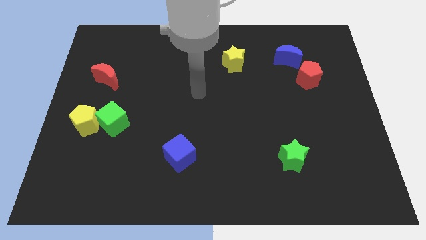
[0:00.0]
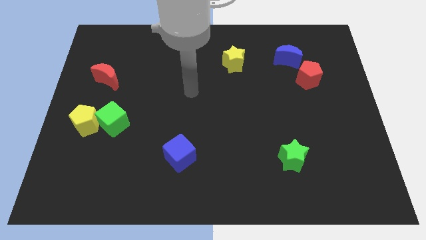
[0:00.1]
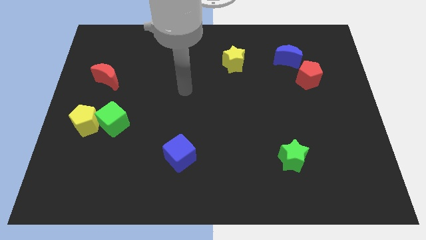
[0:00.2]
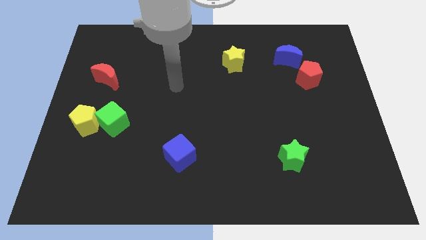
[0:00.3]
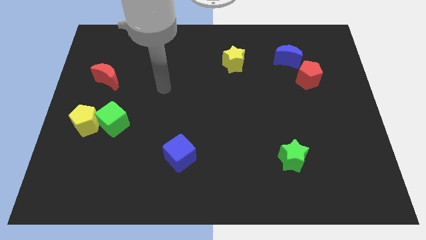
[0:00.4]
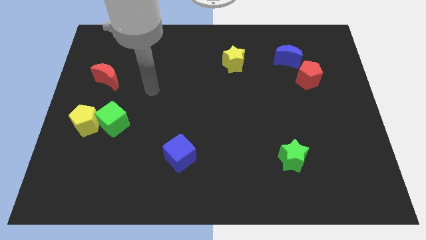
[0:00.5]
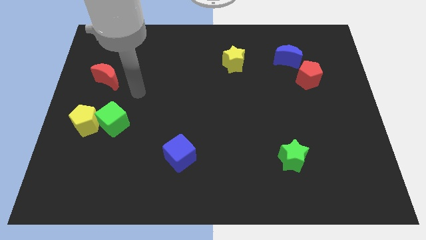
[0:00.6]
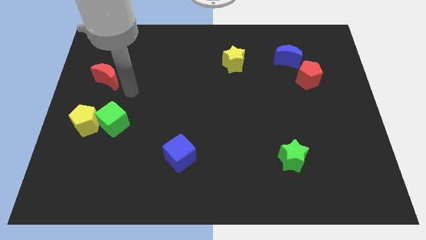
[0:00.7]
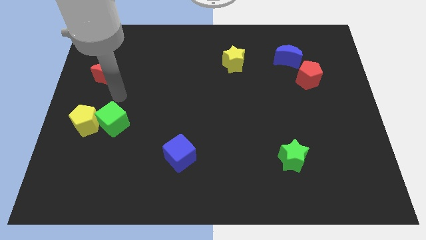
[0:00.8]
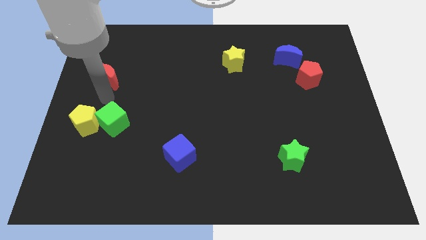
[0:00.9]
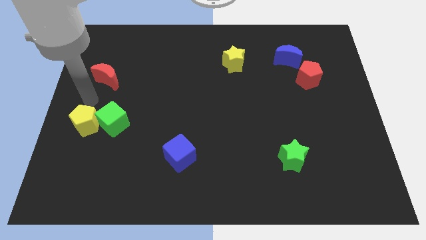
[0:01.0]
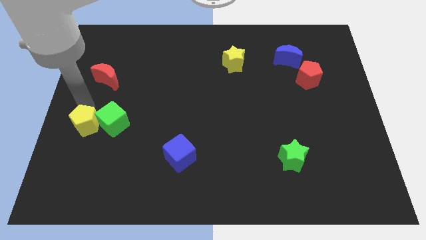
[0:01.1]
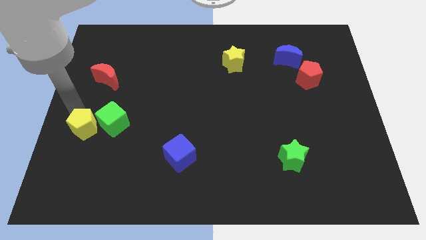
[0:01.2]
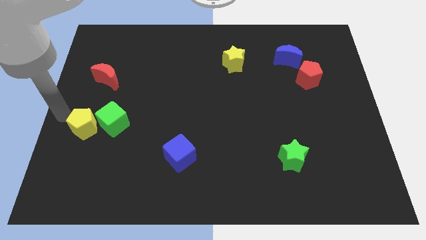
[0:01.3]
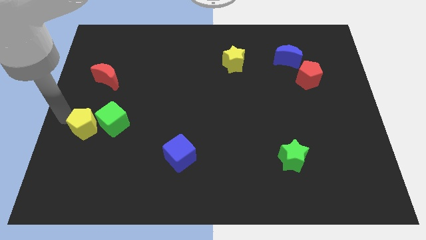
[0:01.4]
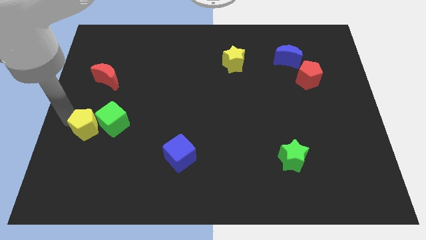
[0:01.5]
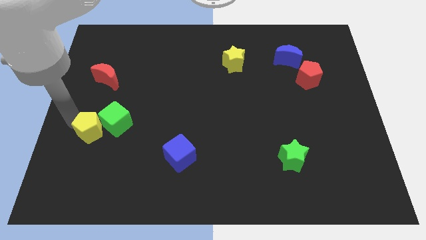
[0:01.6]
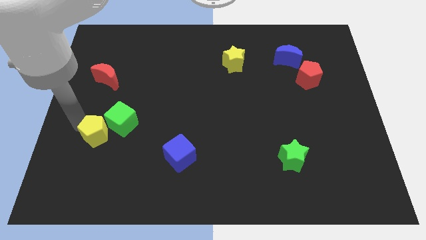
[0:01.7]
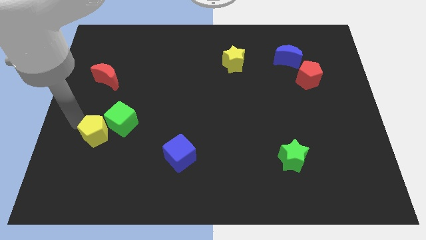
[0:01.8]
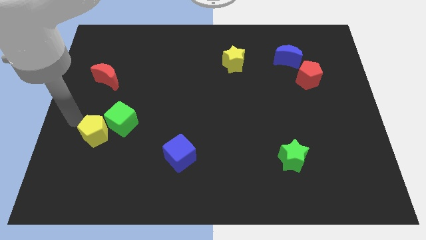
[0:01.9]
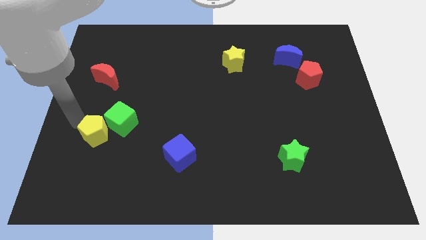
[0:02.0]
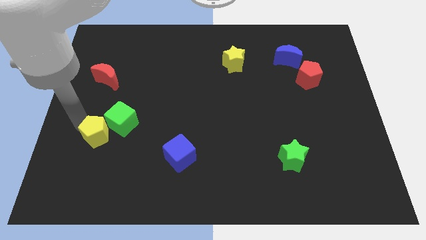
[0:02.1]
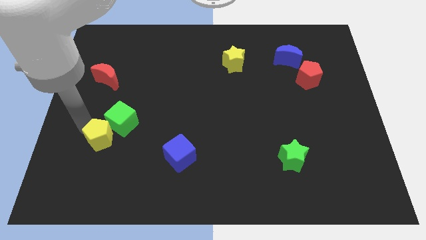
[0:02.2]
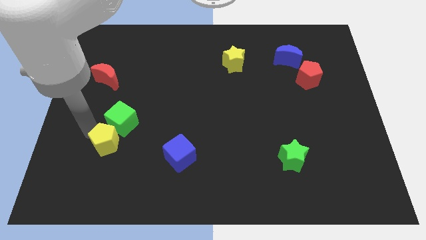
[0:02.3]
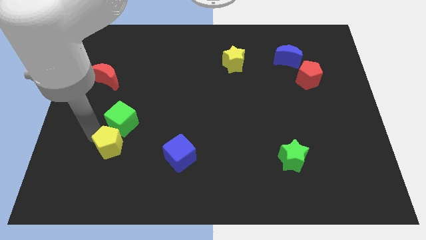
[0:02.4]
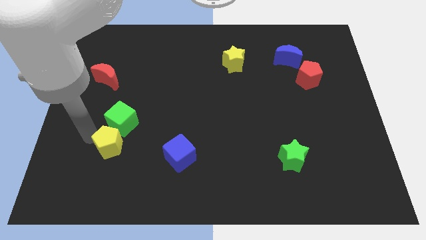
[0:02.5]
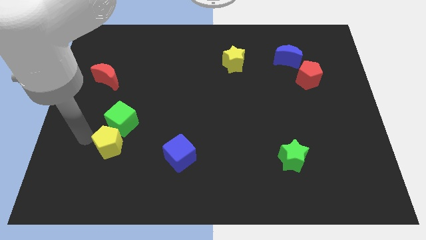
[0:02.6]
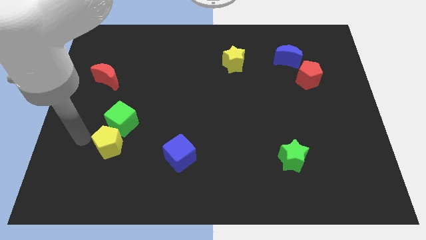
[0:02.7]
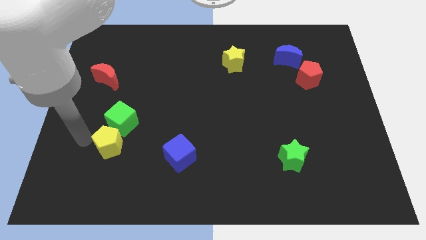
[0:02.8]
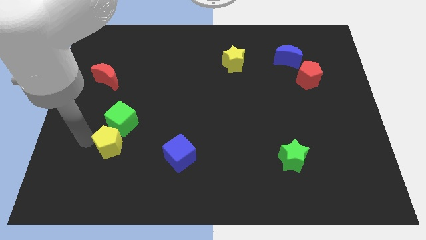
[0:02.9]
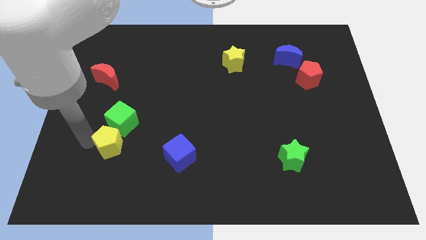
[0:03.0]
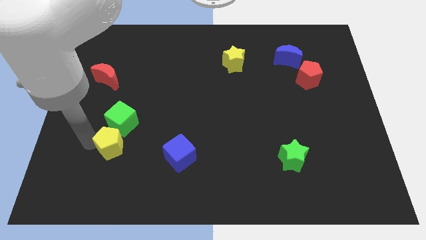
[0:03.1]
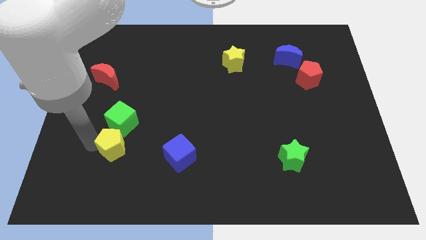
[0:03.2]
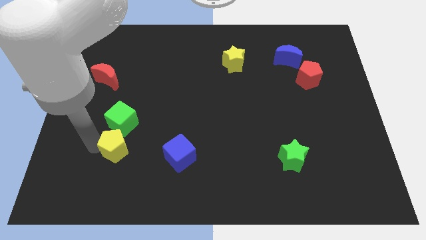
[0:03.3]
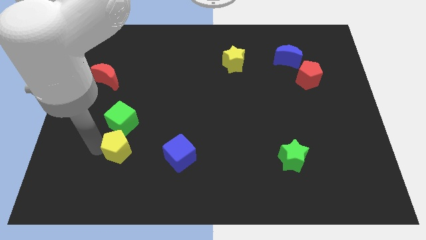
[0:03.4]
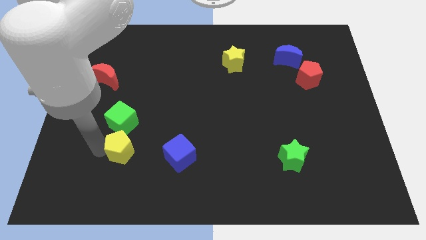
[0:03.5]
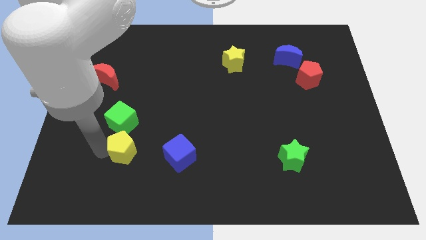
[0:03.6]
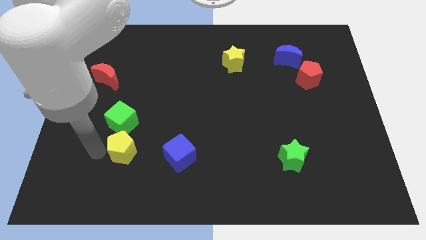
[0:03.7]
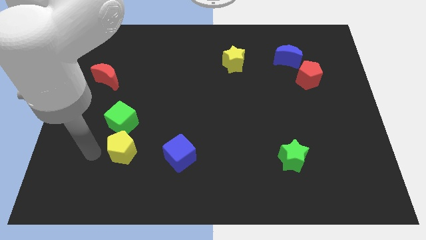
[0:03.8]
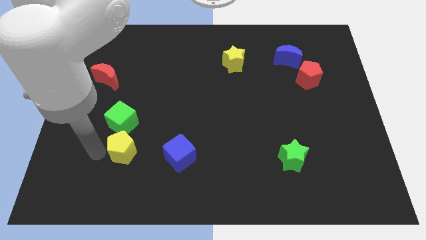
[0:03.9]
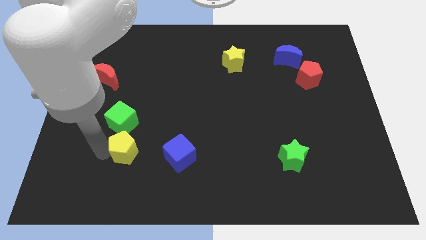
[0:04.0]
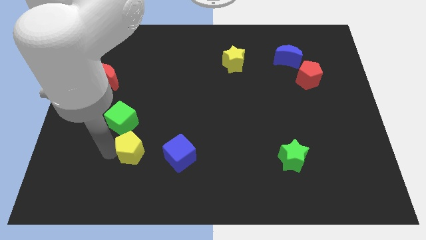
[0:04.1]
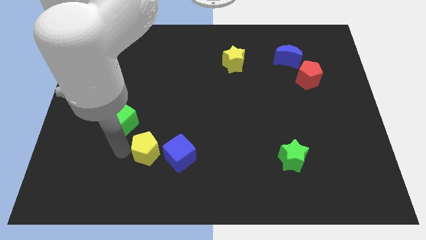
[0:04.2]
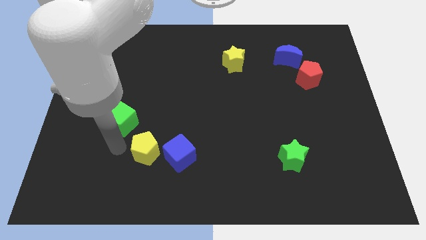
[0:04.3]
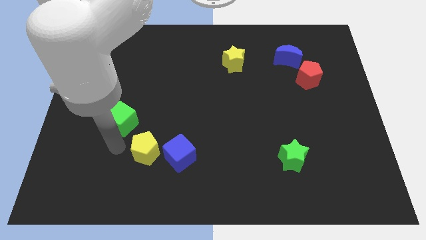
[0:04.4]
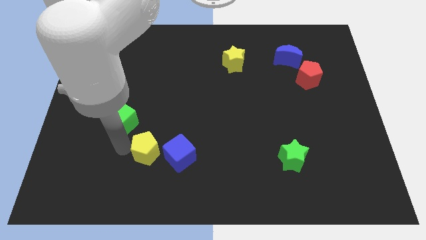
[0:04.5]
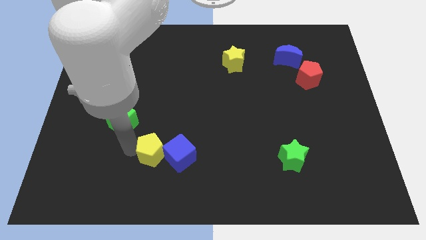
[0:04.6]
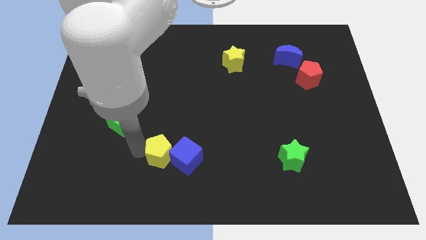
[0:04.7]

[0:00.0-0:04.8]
slide the yellow pentagon next to the blue cube

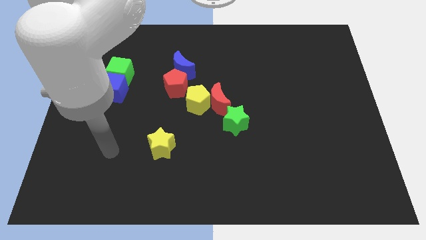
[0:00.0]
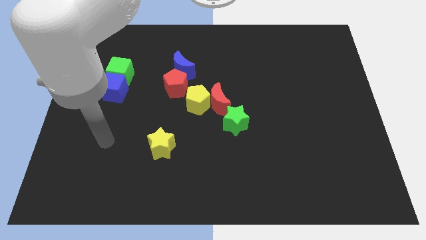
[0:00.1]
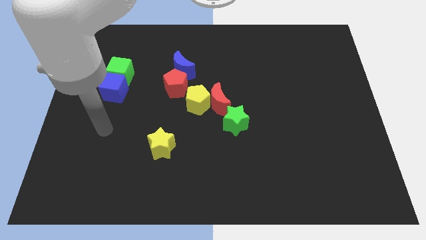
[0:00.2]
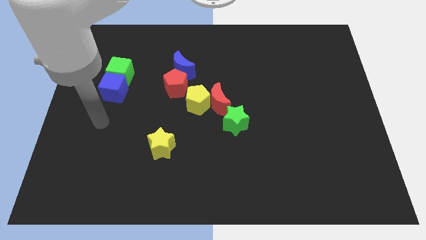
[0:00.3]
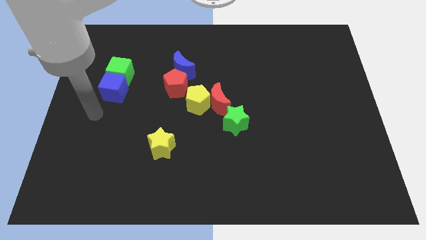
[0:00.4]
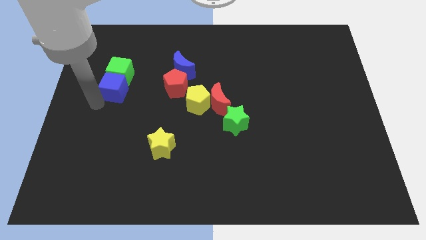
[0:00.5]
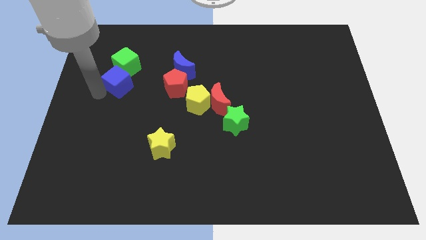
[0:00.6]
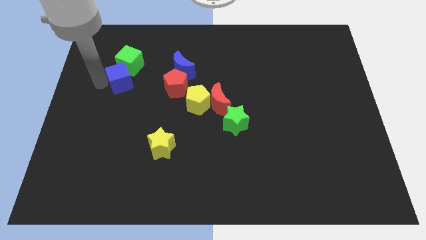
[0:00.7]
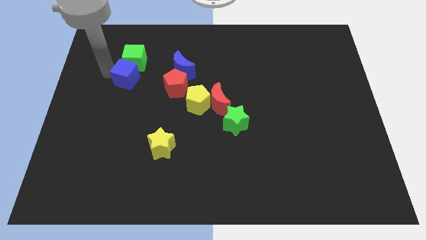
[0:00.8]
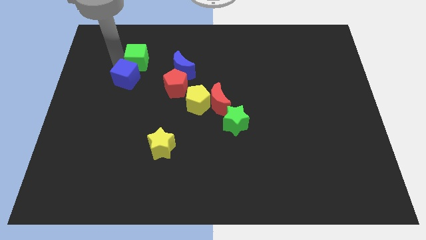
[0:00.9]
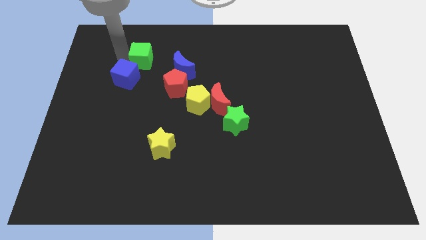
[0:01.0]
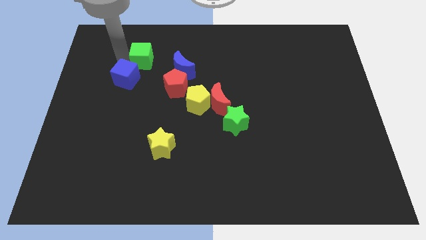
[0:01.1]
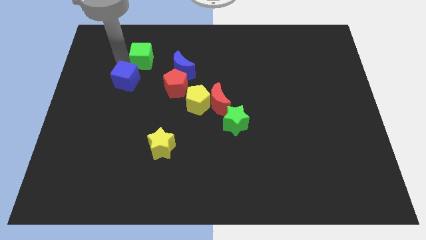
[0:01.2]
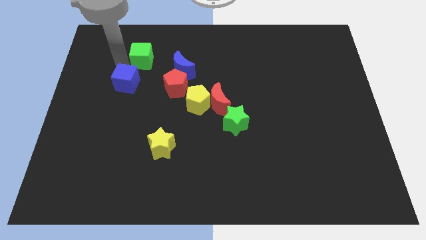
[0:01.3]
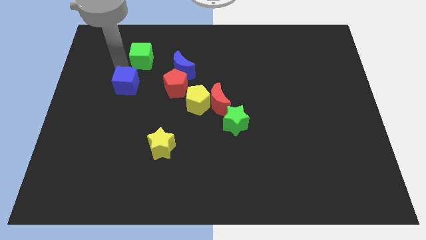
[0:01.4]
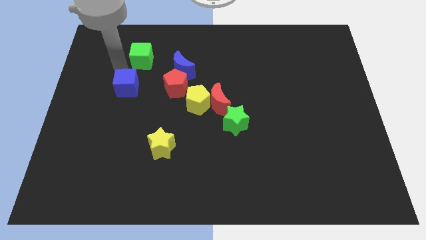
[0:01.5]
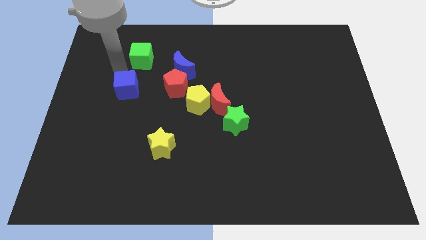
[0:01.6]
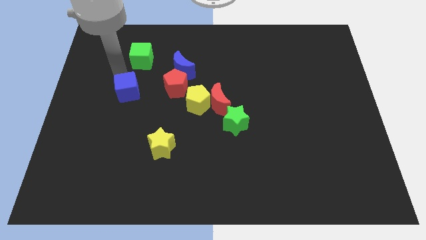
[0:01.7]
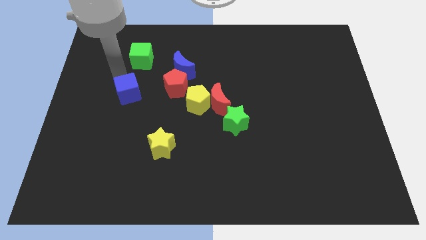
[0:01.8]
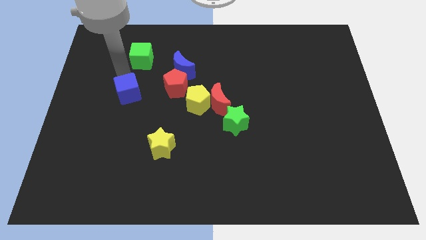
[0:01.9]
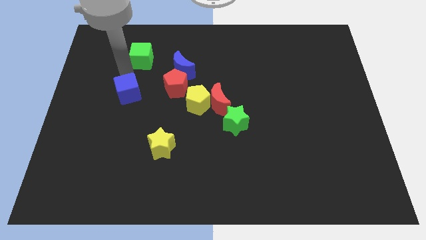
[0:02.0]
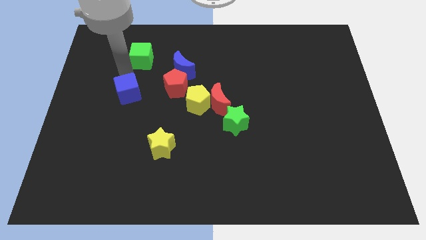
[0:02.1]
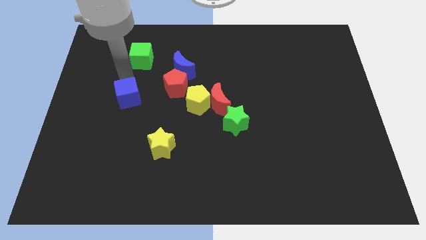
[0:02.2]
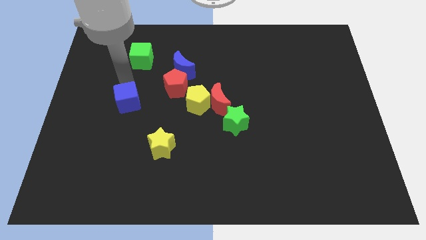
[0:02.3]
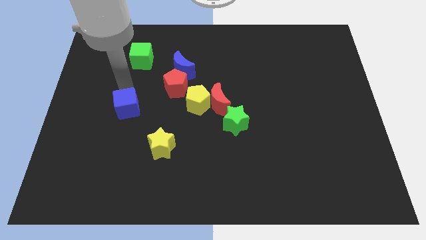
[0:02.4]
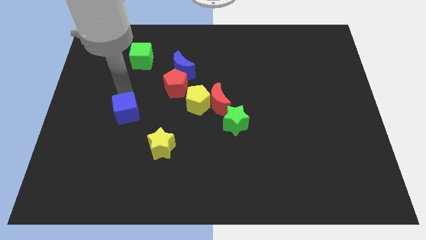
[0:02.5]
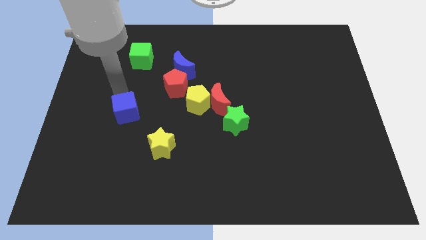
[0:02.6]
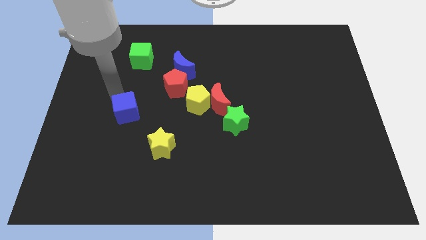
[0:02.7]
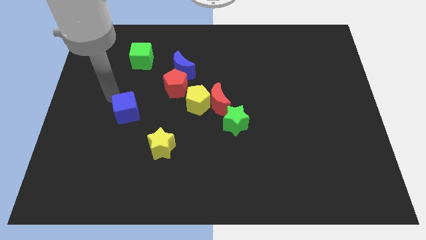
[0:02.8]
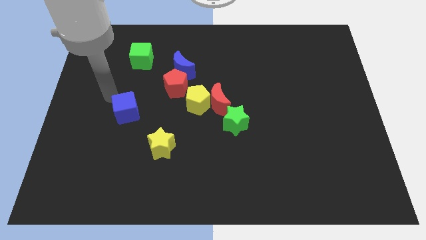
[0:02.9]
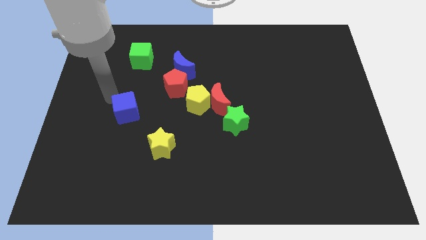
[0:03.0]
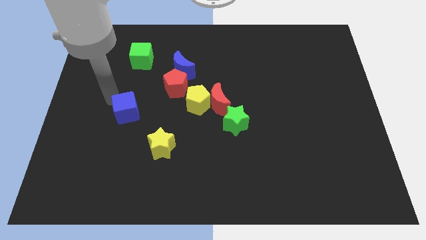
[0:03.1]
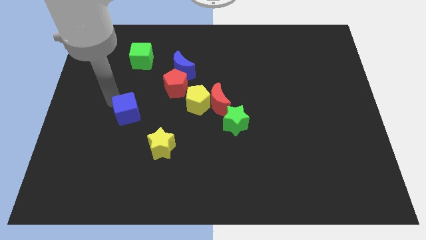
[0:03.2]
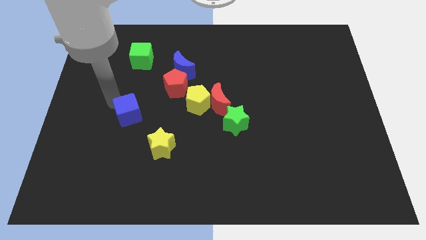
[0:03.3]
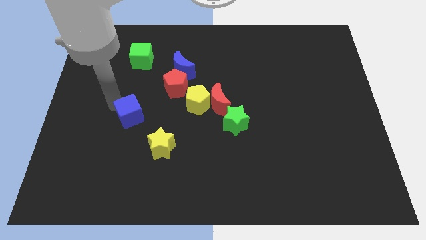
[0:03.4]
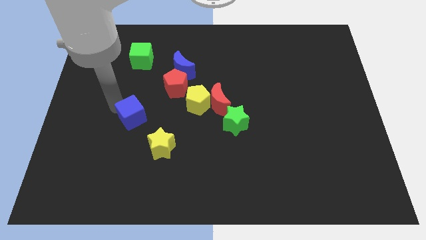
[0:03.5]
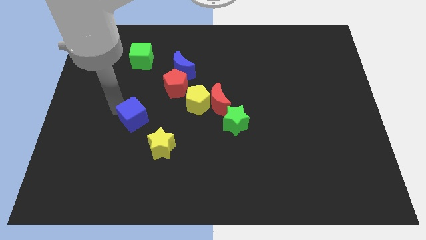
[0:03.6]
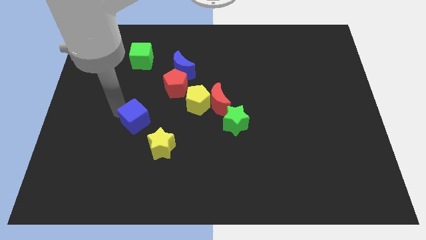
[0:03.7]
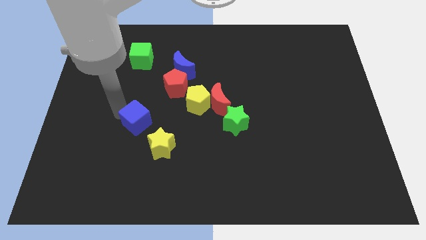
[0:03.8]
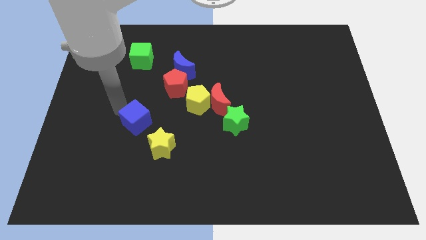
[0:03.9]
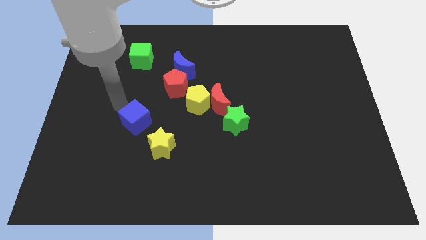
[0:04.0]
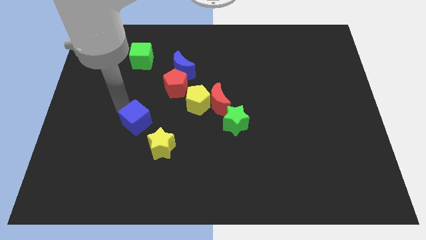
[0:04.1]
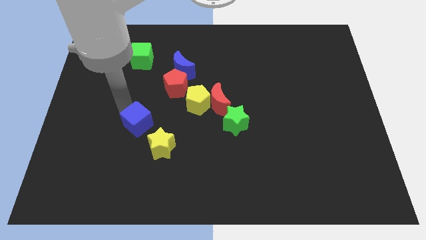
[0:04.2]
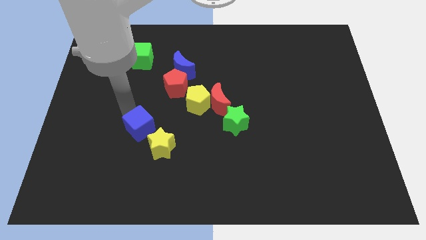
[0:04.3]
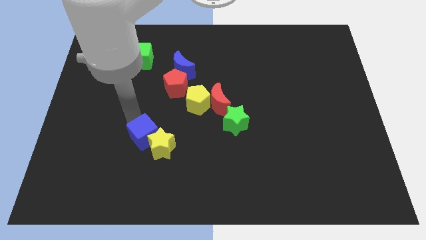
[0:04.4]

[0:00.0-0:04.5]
move the blue cube towards the yellow star
